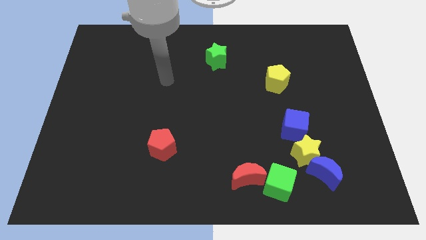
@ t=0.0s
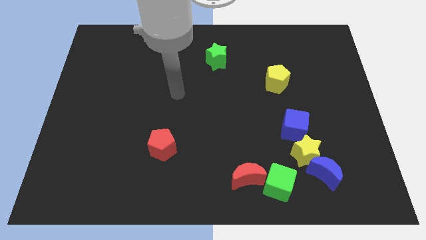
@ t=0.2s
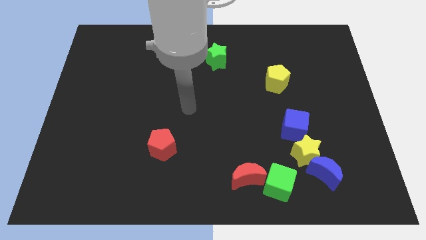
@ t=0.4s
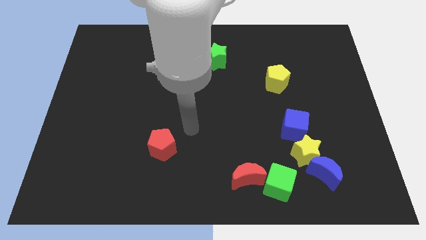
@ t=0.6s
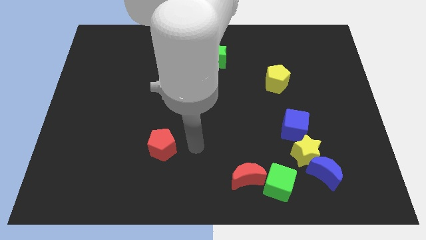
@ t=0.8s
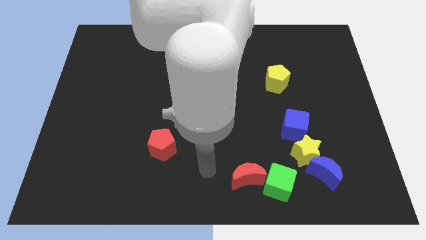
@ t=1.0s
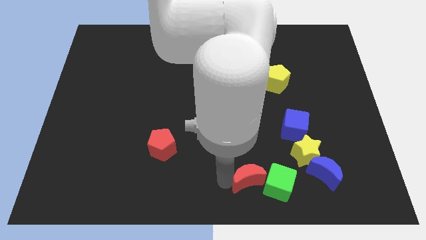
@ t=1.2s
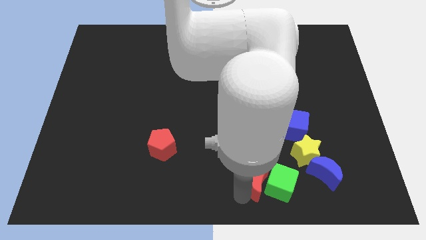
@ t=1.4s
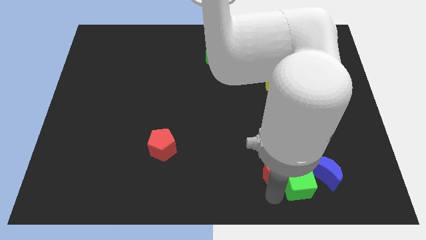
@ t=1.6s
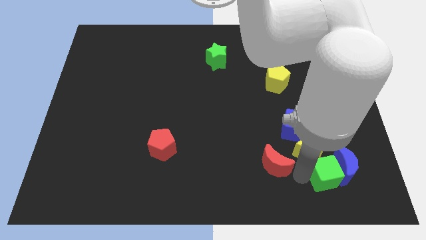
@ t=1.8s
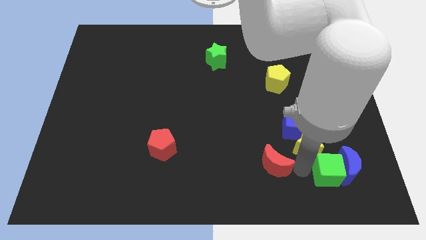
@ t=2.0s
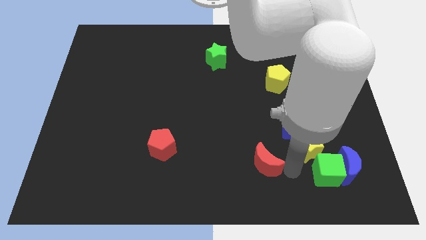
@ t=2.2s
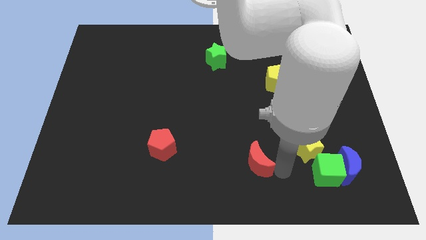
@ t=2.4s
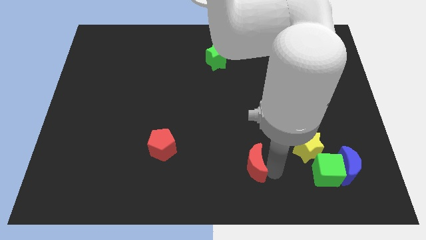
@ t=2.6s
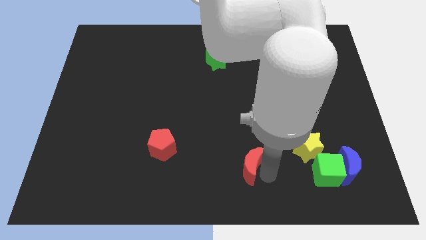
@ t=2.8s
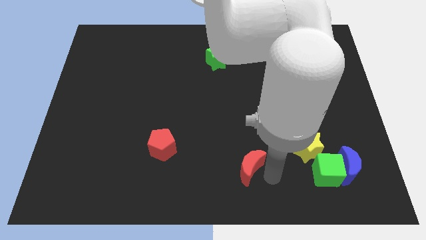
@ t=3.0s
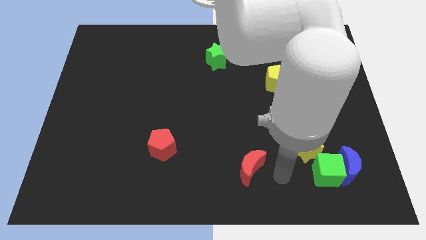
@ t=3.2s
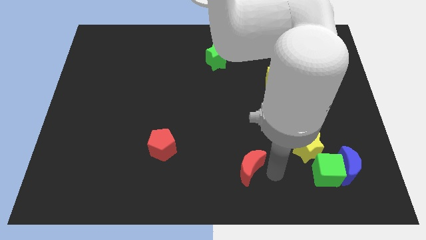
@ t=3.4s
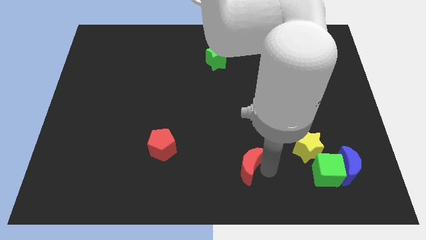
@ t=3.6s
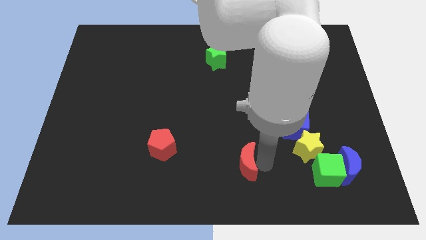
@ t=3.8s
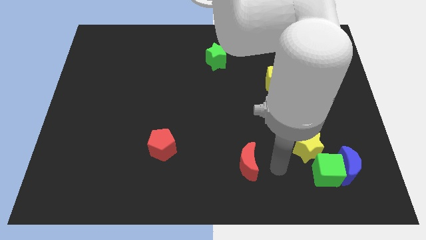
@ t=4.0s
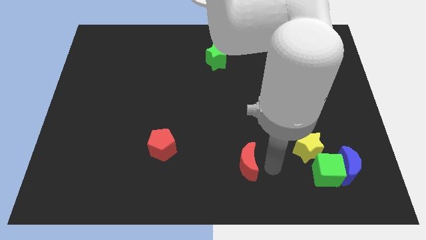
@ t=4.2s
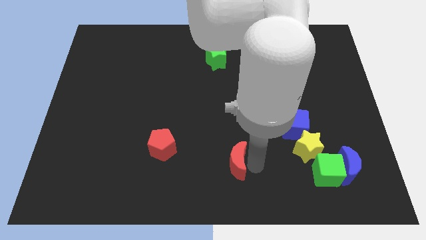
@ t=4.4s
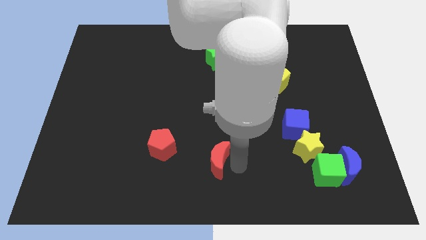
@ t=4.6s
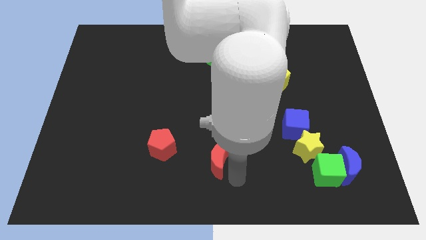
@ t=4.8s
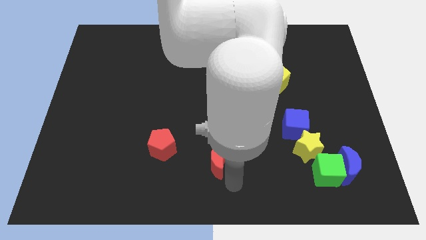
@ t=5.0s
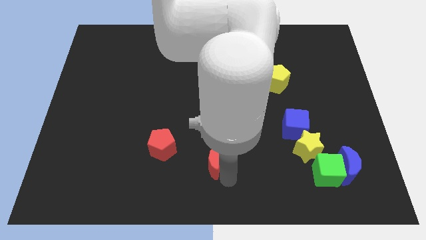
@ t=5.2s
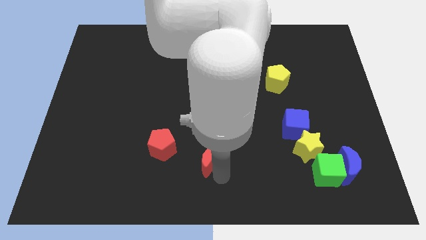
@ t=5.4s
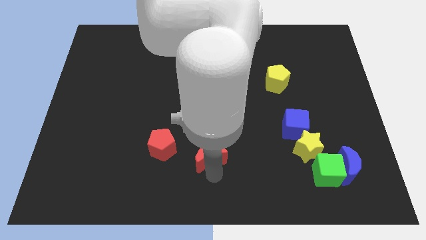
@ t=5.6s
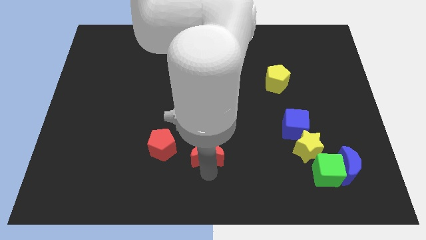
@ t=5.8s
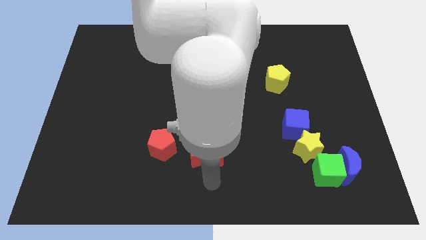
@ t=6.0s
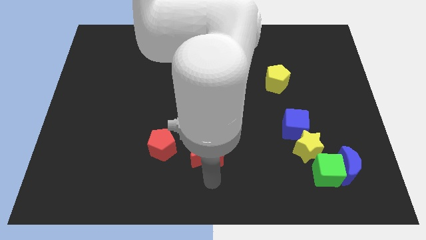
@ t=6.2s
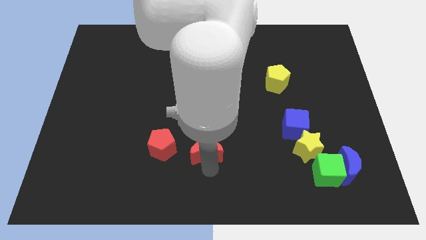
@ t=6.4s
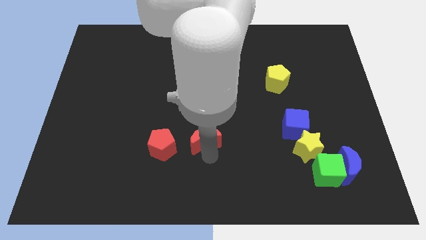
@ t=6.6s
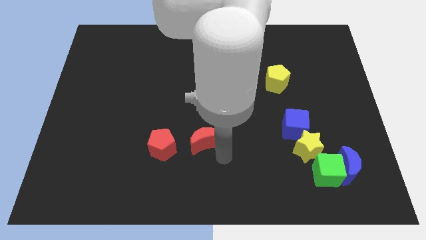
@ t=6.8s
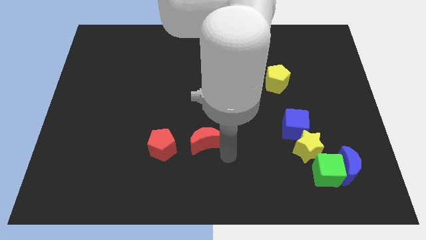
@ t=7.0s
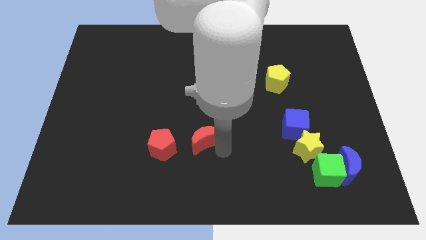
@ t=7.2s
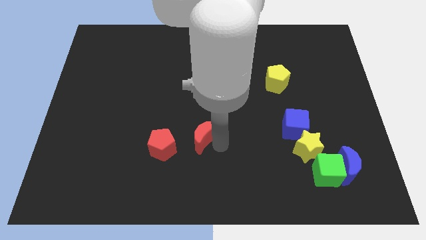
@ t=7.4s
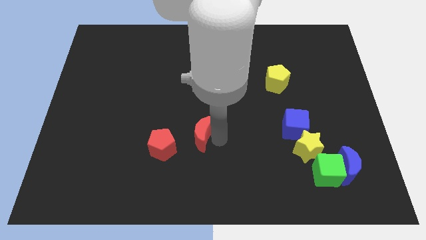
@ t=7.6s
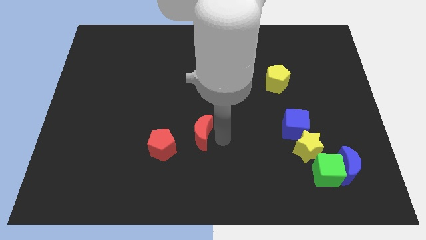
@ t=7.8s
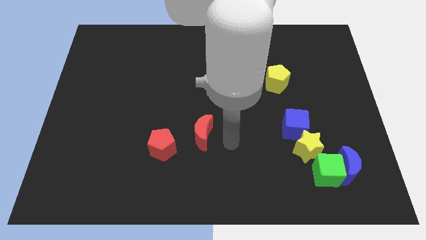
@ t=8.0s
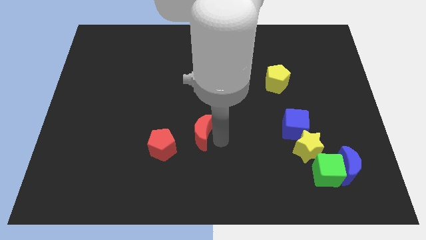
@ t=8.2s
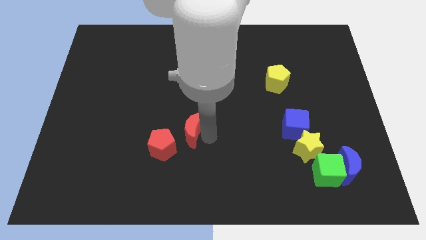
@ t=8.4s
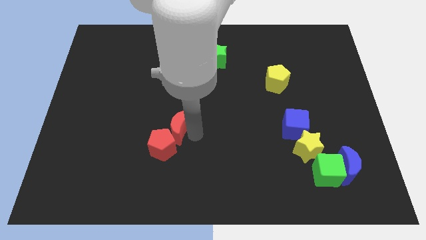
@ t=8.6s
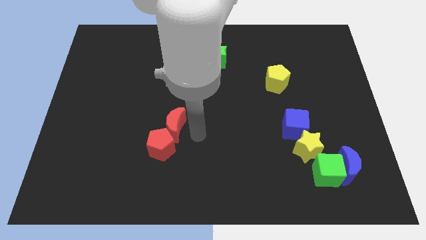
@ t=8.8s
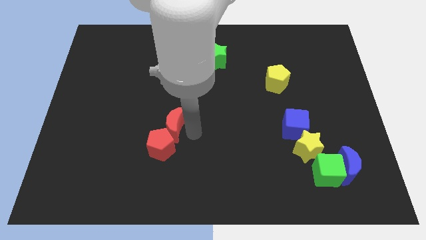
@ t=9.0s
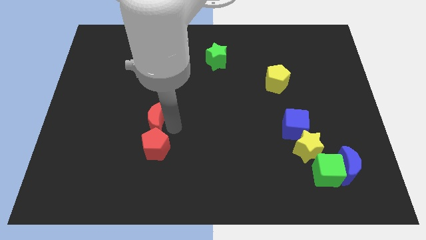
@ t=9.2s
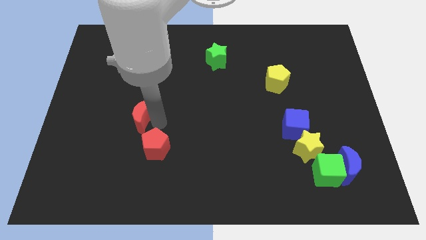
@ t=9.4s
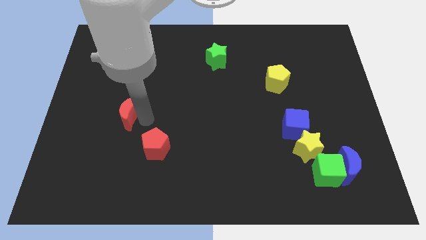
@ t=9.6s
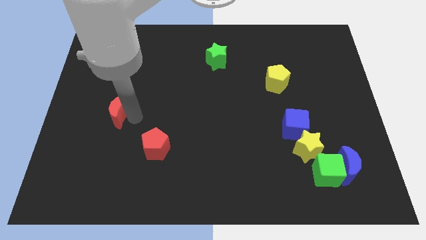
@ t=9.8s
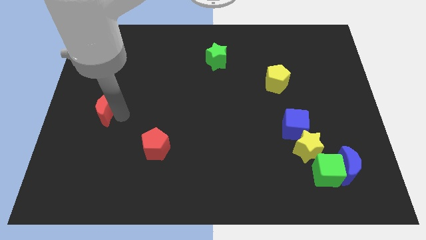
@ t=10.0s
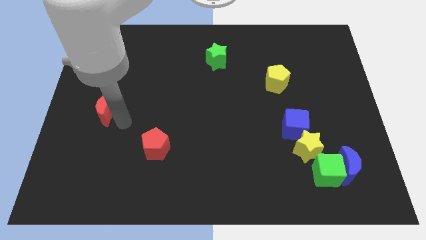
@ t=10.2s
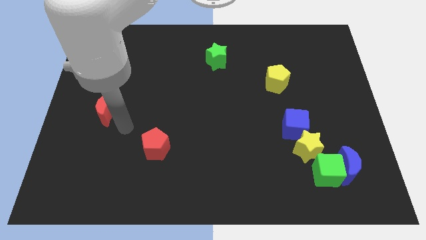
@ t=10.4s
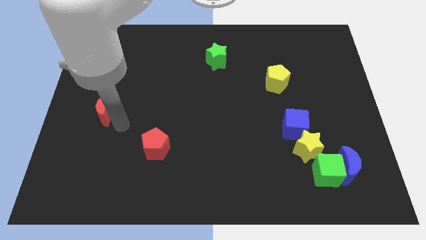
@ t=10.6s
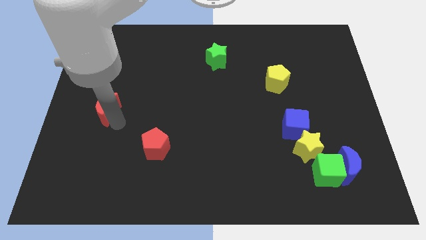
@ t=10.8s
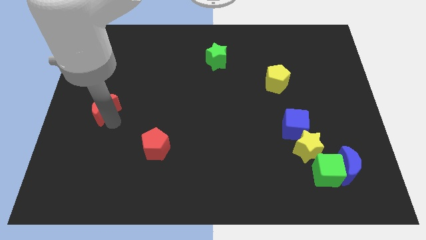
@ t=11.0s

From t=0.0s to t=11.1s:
put the red moon to the left side of the board

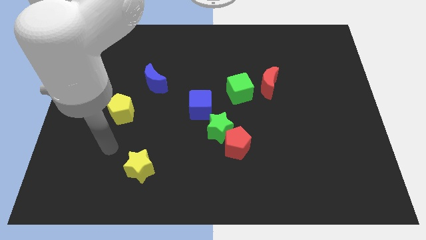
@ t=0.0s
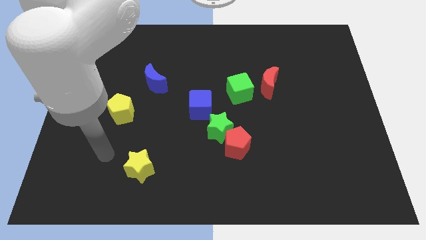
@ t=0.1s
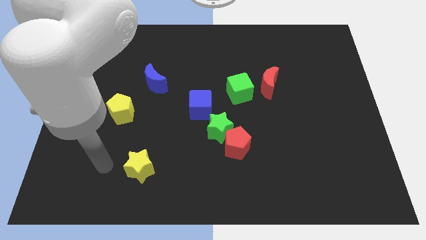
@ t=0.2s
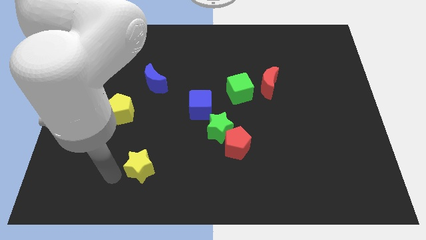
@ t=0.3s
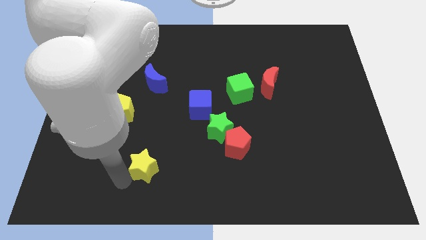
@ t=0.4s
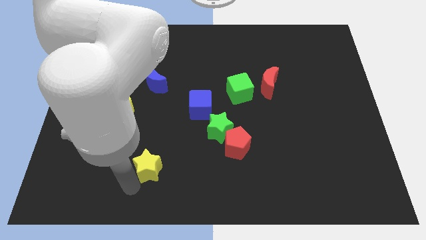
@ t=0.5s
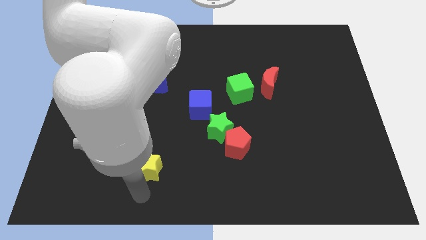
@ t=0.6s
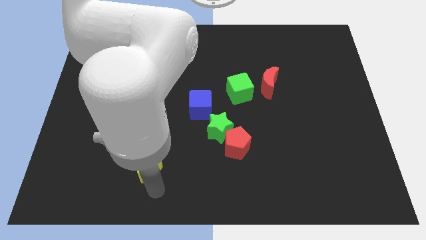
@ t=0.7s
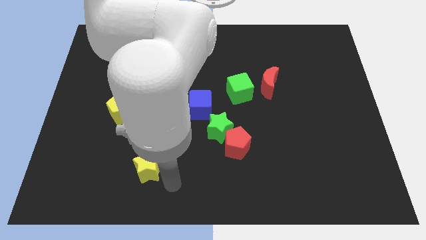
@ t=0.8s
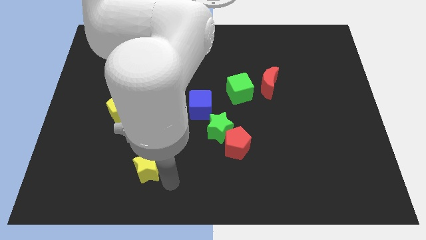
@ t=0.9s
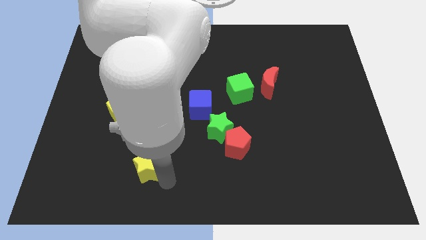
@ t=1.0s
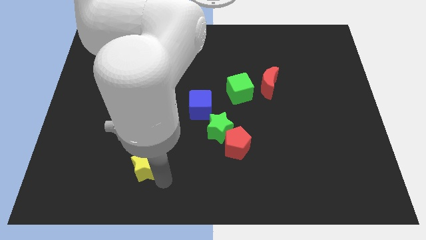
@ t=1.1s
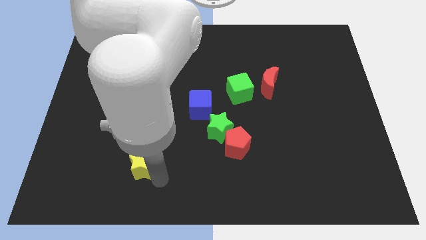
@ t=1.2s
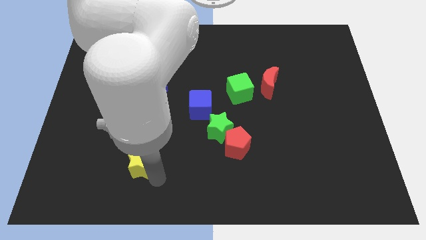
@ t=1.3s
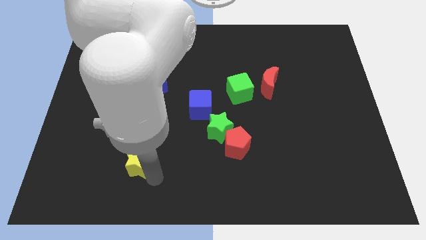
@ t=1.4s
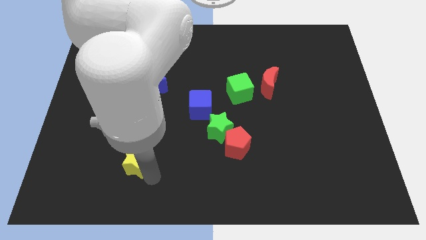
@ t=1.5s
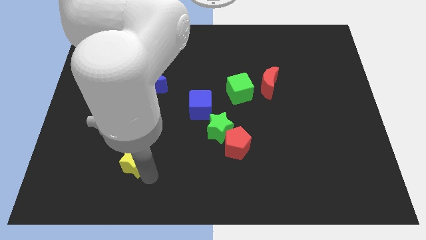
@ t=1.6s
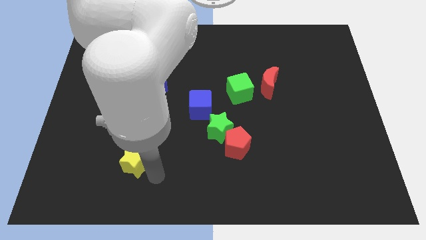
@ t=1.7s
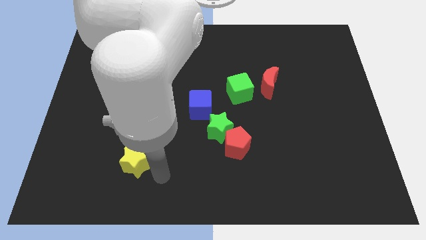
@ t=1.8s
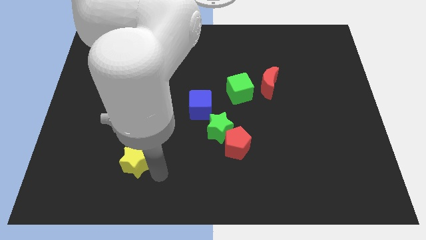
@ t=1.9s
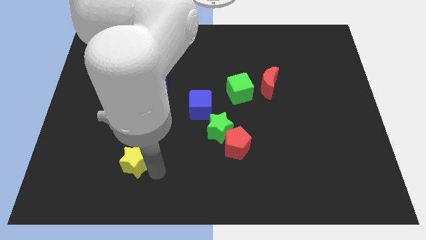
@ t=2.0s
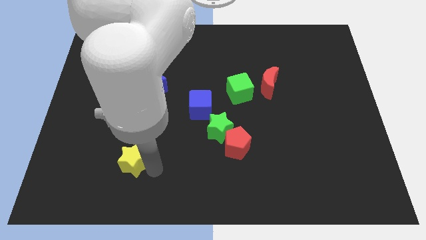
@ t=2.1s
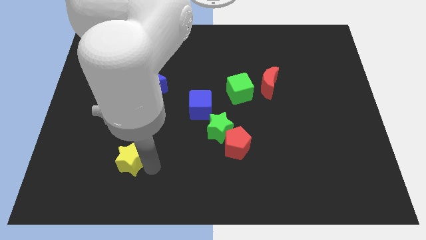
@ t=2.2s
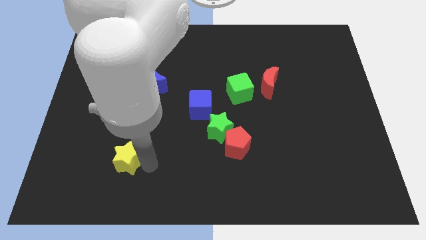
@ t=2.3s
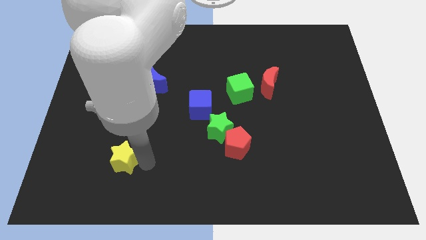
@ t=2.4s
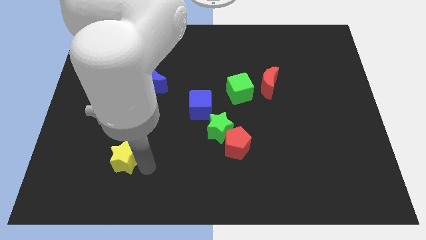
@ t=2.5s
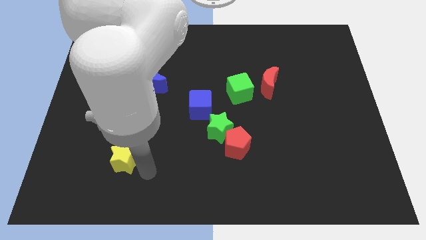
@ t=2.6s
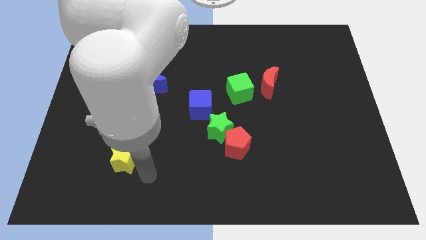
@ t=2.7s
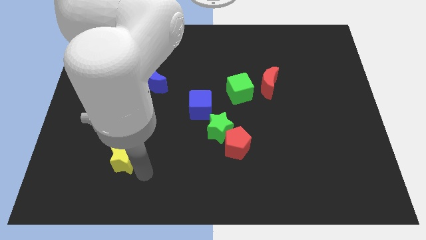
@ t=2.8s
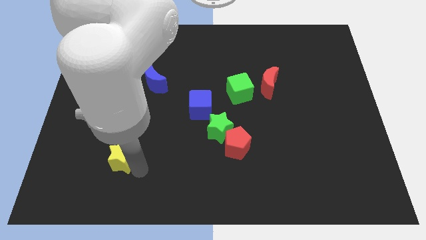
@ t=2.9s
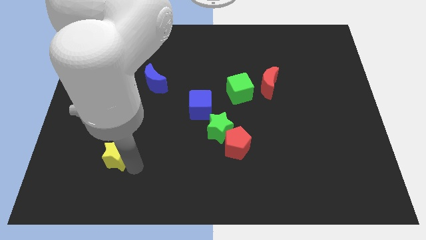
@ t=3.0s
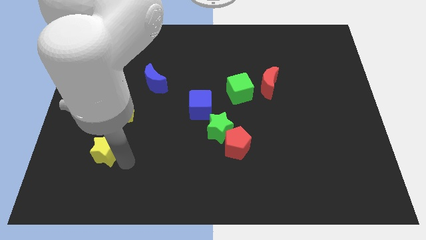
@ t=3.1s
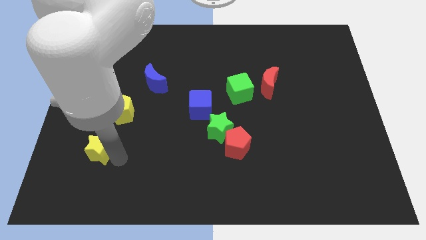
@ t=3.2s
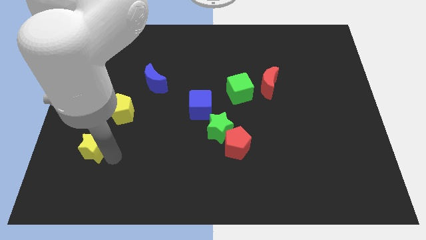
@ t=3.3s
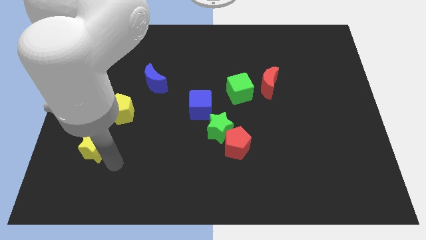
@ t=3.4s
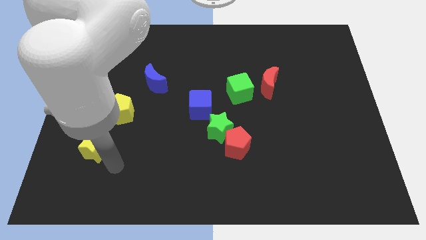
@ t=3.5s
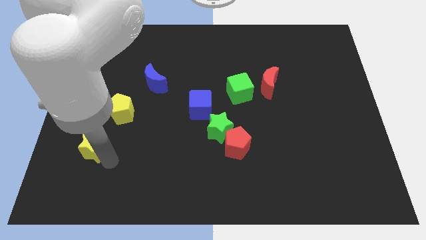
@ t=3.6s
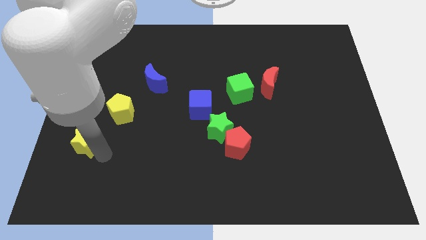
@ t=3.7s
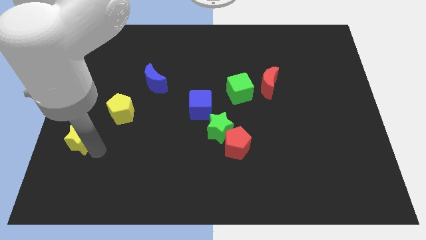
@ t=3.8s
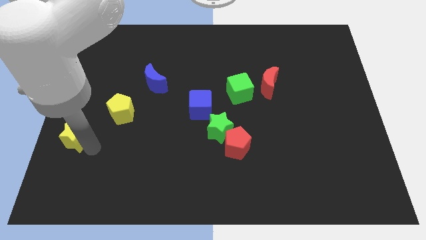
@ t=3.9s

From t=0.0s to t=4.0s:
move the yellow star to the center left
